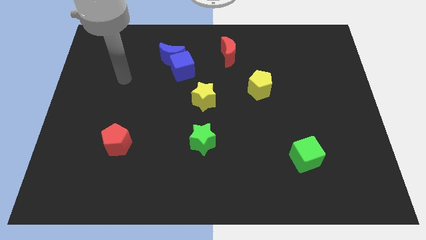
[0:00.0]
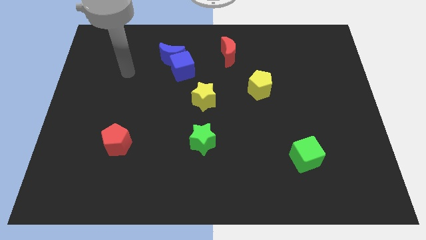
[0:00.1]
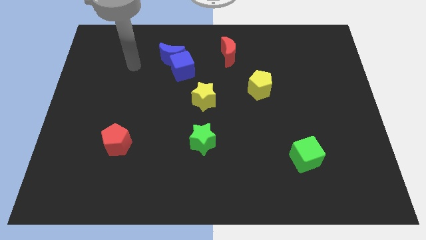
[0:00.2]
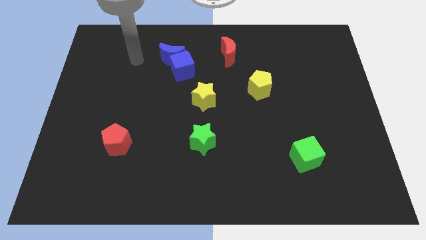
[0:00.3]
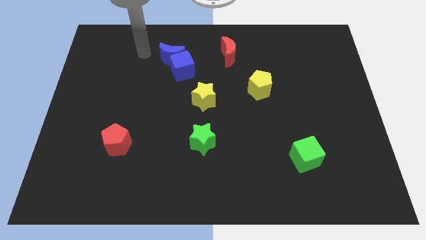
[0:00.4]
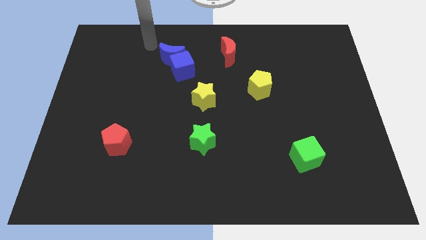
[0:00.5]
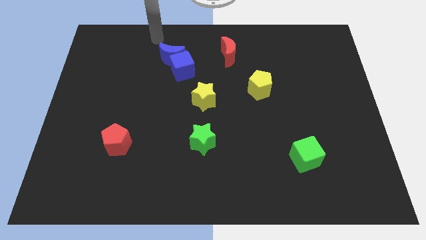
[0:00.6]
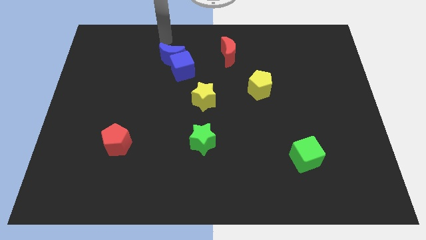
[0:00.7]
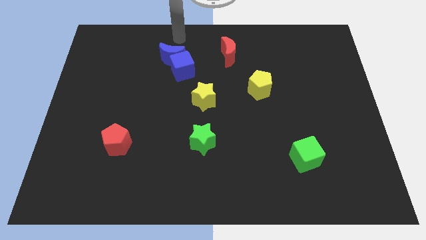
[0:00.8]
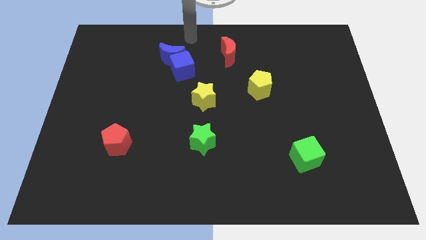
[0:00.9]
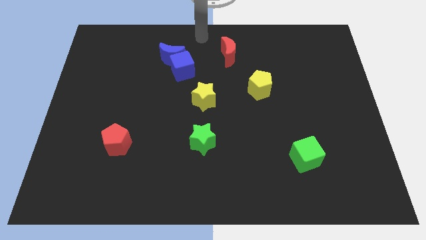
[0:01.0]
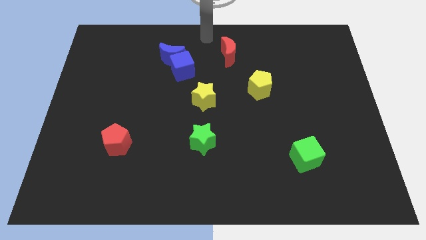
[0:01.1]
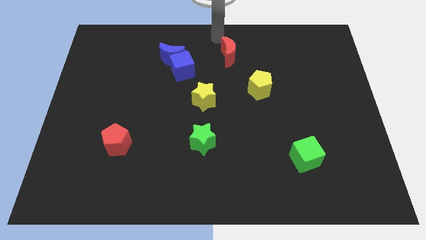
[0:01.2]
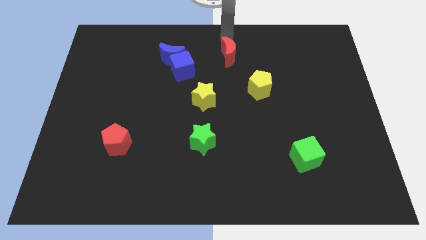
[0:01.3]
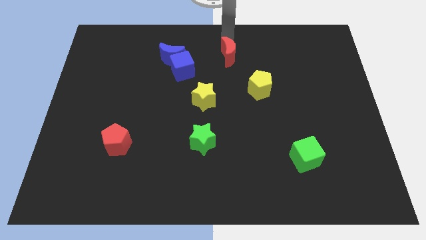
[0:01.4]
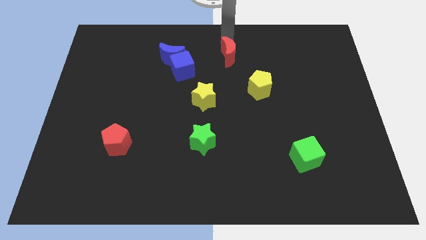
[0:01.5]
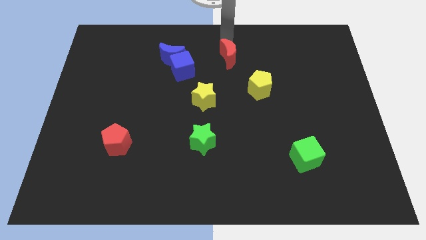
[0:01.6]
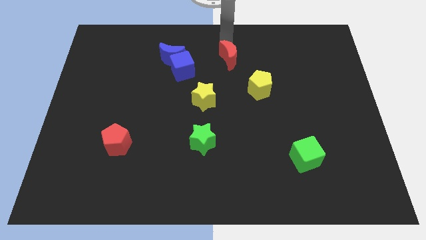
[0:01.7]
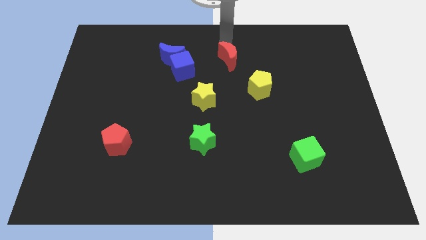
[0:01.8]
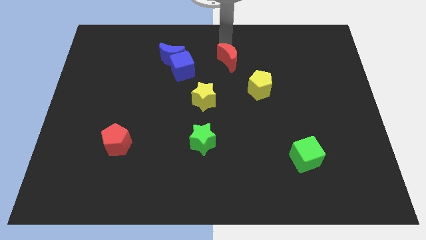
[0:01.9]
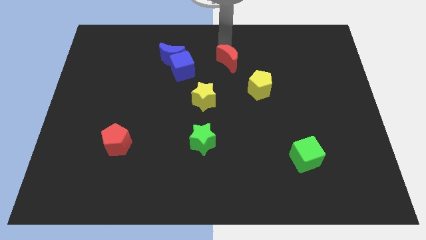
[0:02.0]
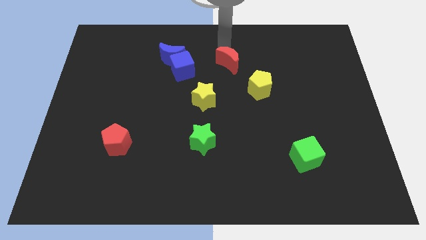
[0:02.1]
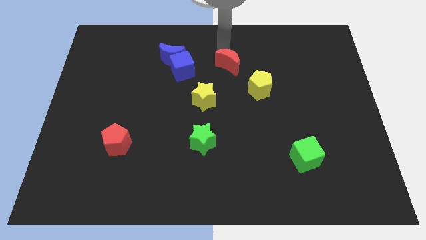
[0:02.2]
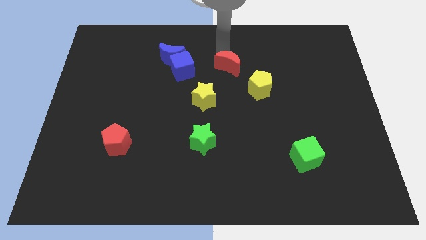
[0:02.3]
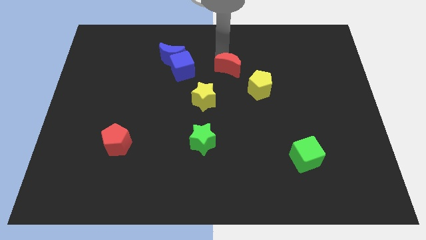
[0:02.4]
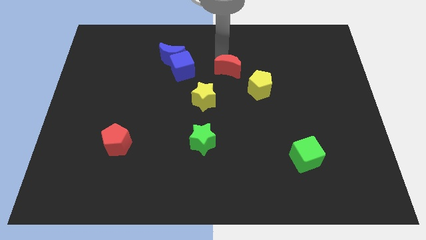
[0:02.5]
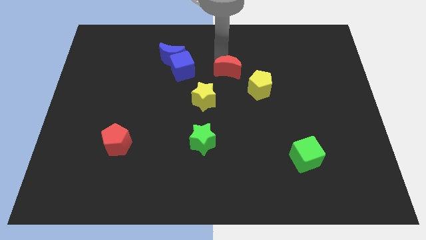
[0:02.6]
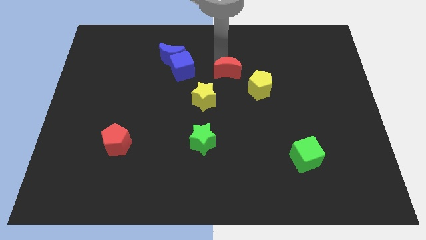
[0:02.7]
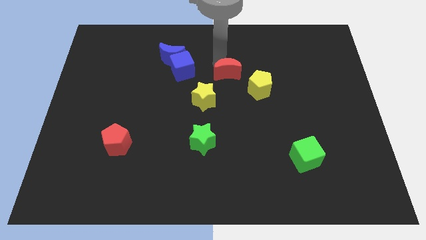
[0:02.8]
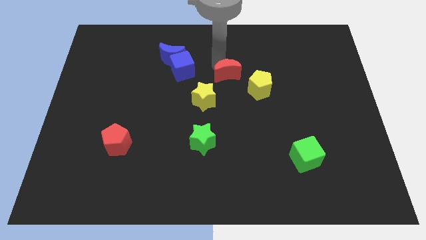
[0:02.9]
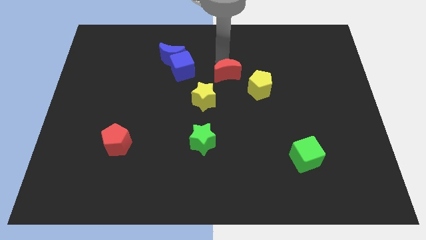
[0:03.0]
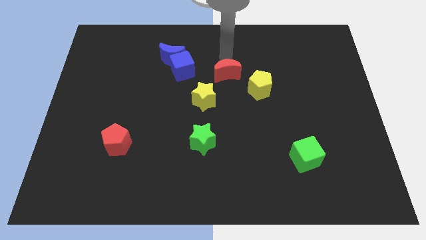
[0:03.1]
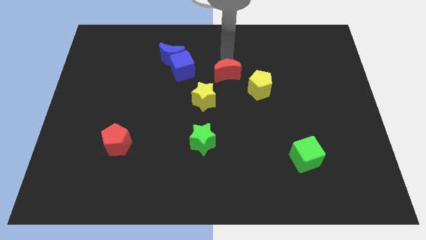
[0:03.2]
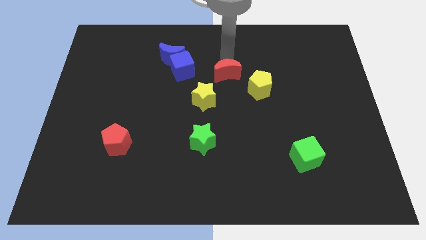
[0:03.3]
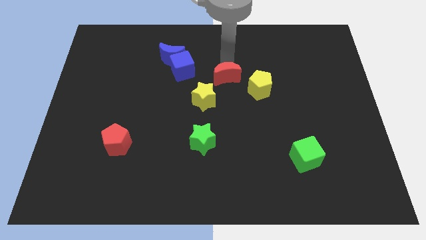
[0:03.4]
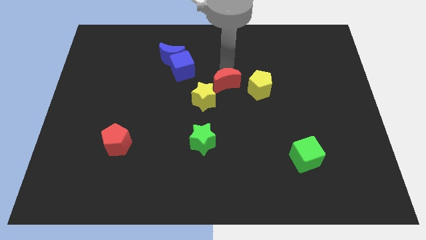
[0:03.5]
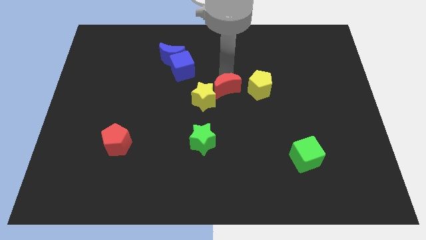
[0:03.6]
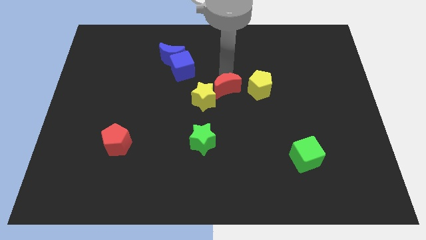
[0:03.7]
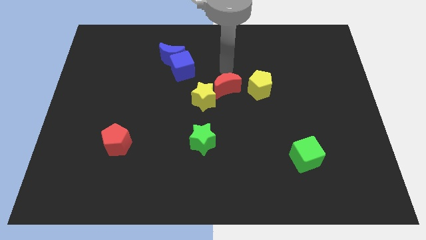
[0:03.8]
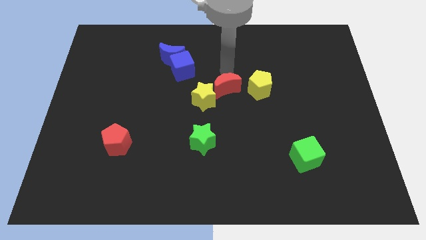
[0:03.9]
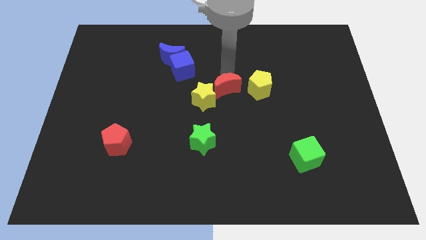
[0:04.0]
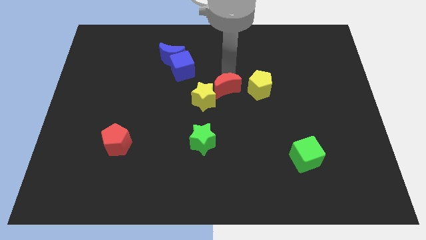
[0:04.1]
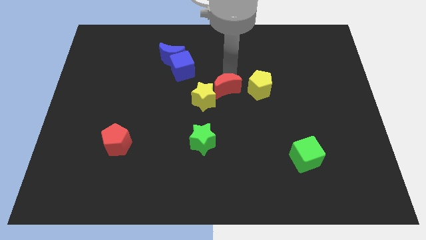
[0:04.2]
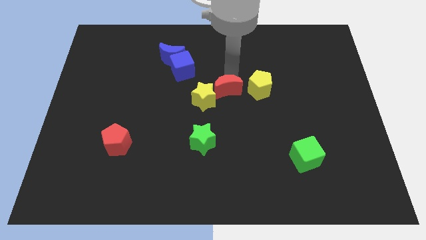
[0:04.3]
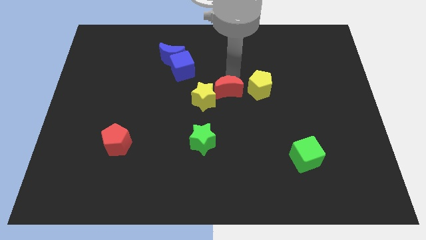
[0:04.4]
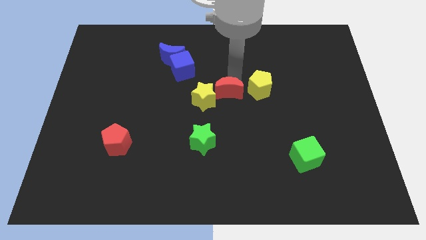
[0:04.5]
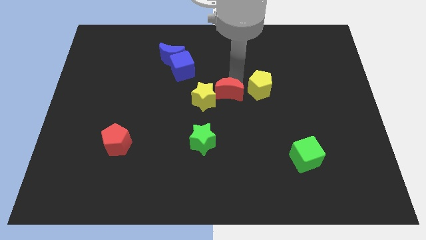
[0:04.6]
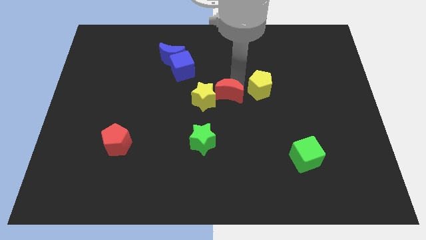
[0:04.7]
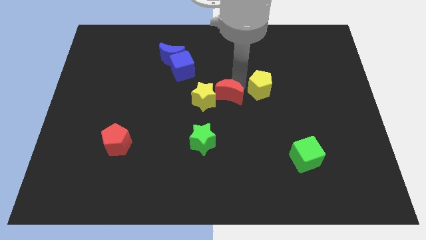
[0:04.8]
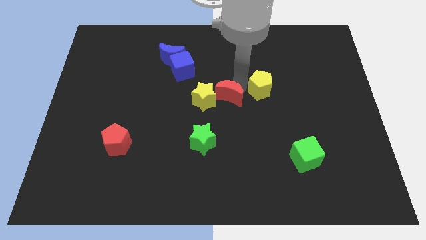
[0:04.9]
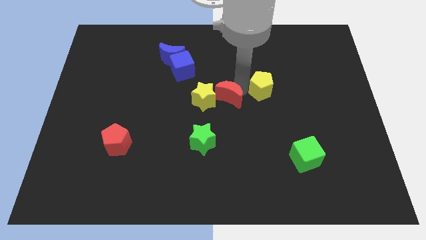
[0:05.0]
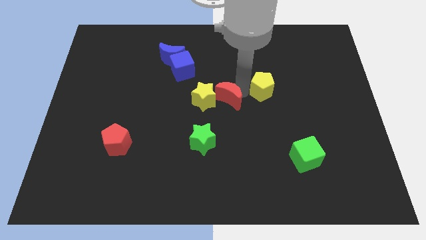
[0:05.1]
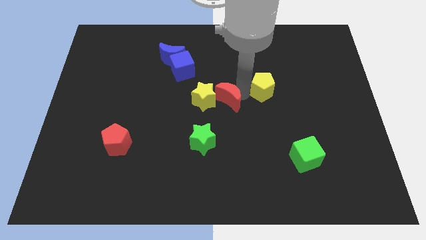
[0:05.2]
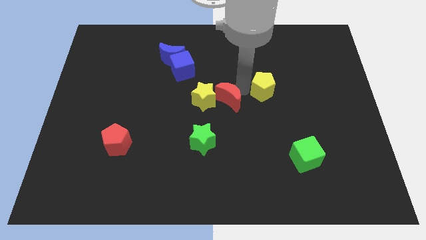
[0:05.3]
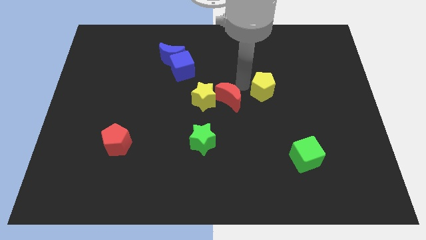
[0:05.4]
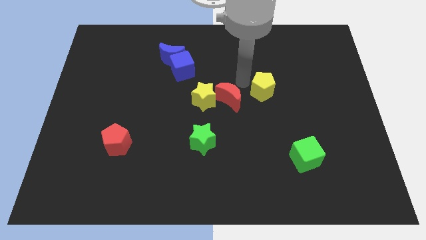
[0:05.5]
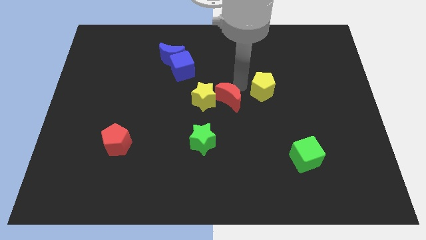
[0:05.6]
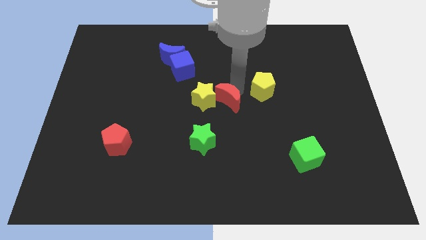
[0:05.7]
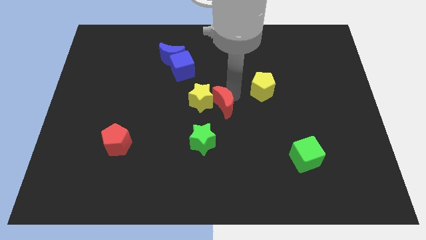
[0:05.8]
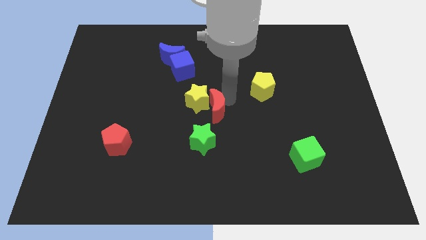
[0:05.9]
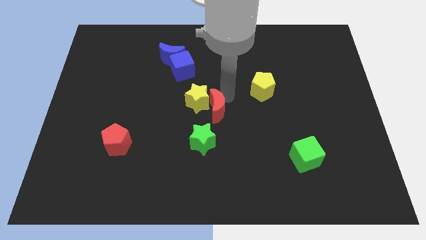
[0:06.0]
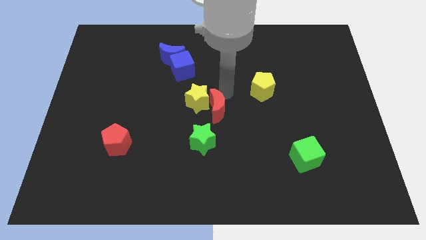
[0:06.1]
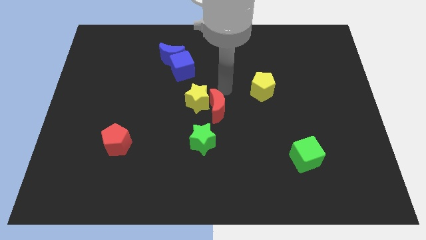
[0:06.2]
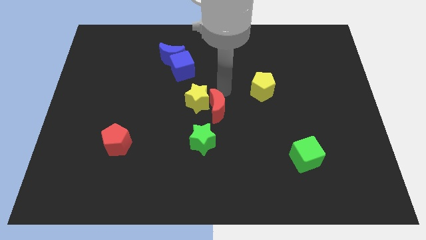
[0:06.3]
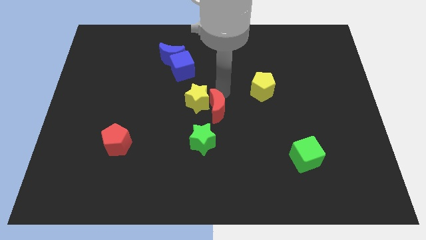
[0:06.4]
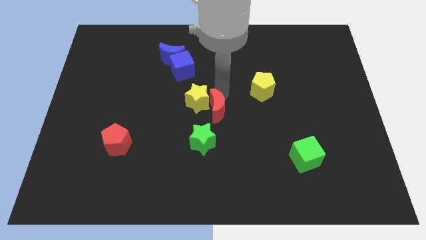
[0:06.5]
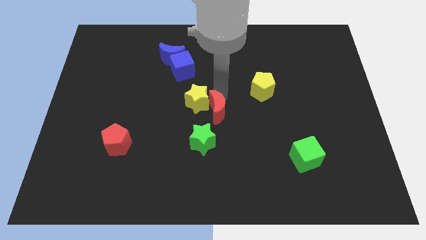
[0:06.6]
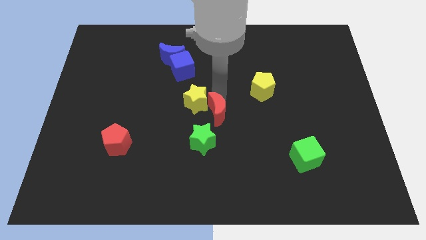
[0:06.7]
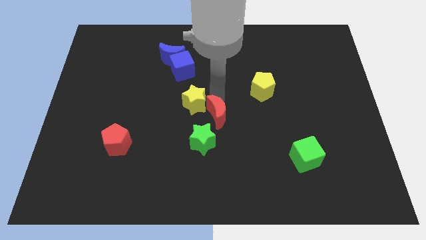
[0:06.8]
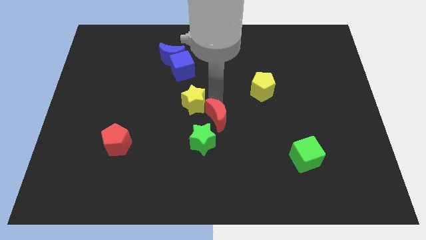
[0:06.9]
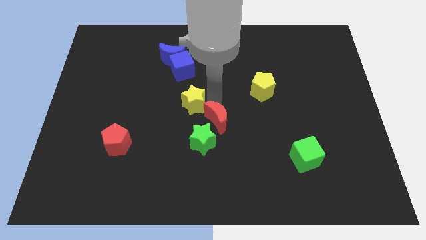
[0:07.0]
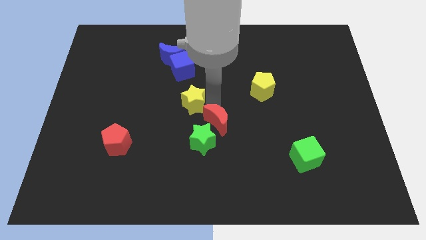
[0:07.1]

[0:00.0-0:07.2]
push the red moon to the green star
